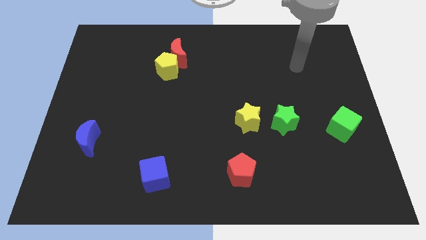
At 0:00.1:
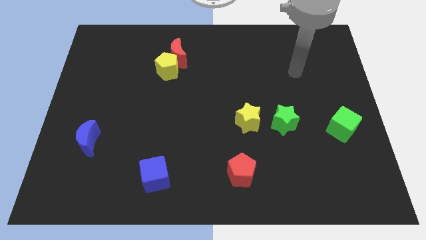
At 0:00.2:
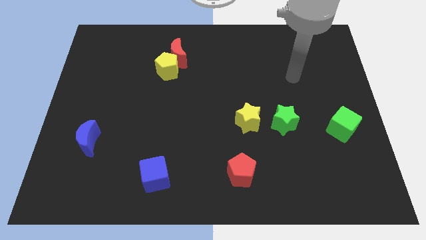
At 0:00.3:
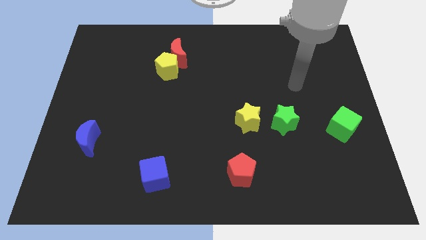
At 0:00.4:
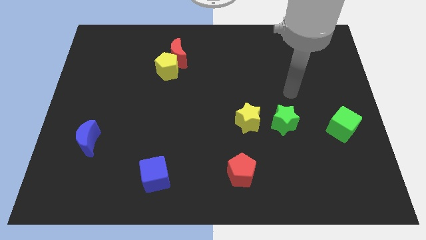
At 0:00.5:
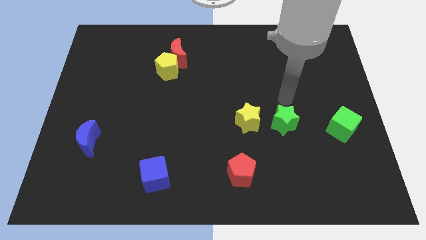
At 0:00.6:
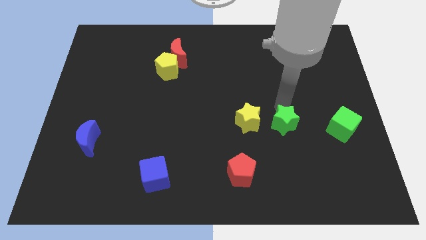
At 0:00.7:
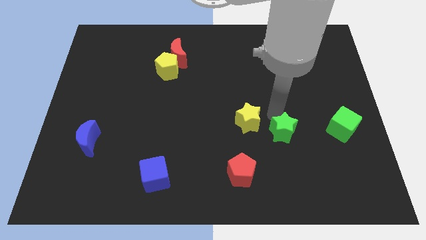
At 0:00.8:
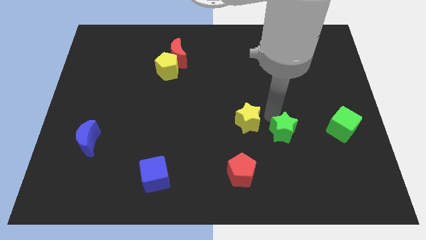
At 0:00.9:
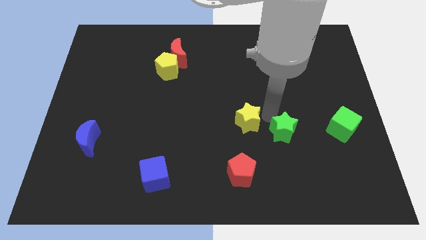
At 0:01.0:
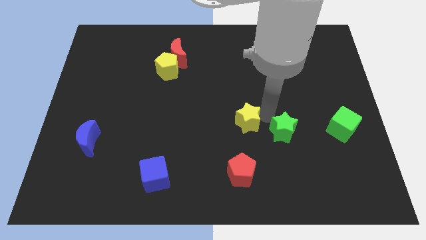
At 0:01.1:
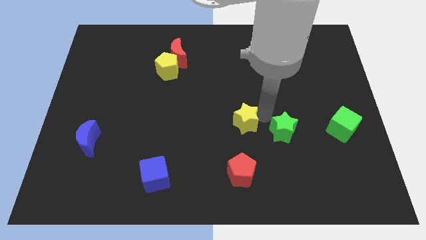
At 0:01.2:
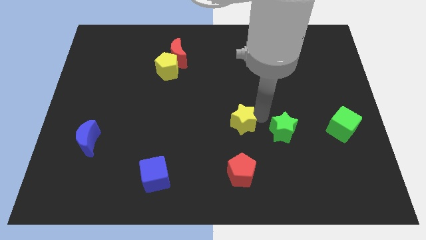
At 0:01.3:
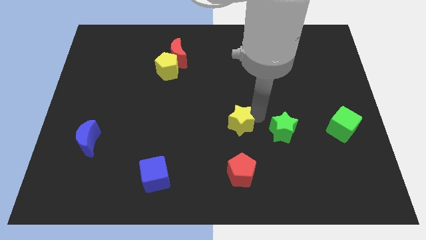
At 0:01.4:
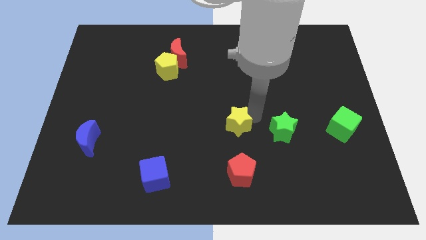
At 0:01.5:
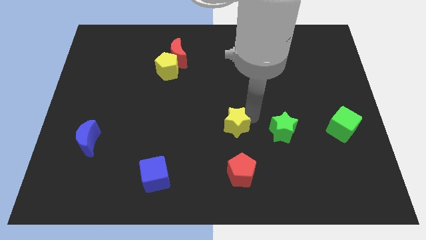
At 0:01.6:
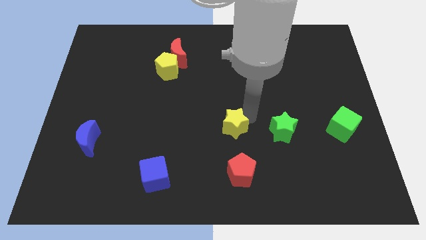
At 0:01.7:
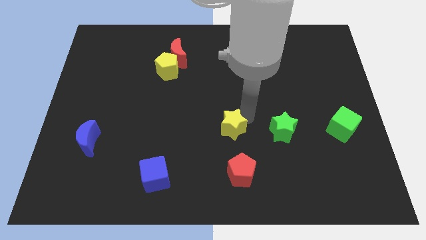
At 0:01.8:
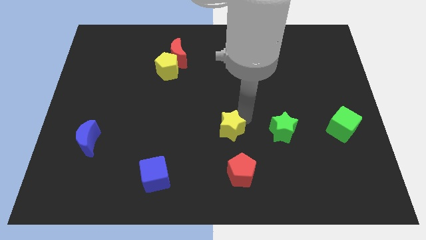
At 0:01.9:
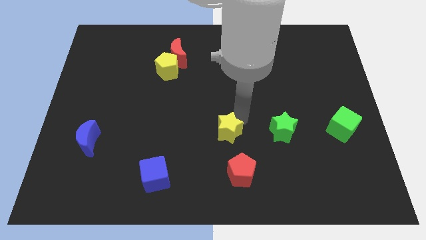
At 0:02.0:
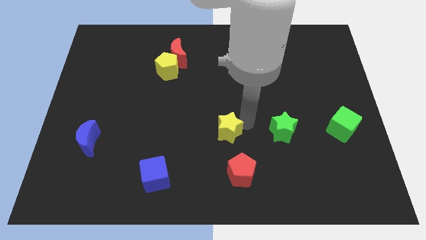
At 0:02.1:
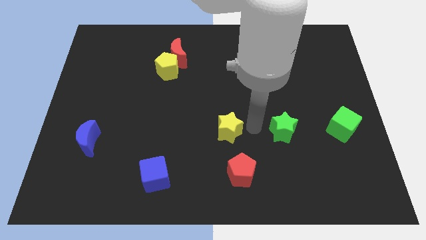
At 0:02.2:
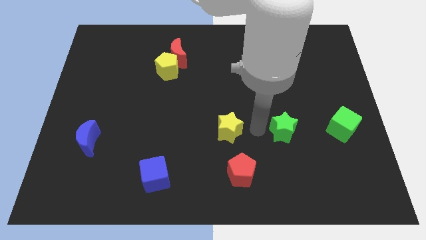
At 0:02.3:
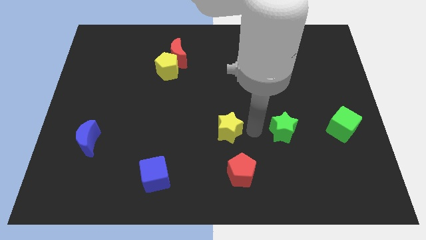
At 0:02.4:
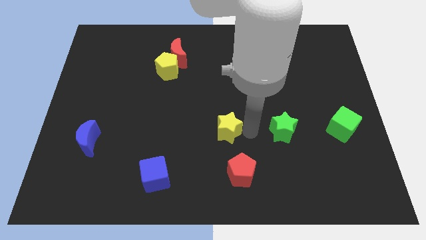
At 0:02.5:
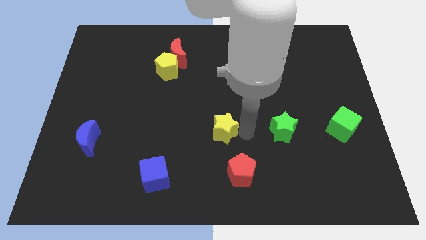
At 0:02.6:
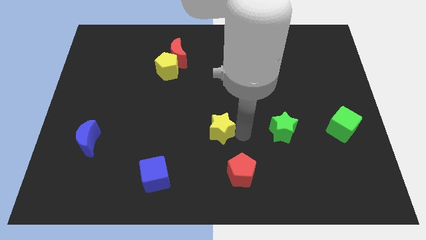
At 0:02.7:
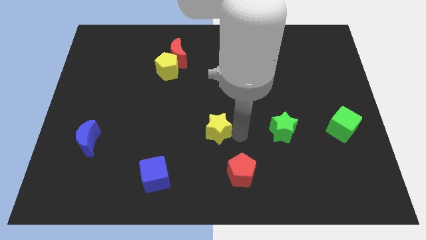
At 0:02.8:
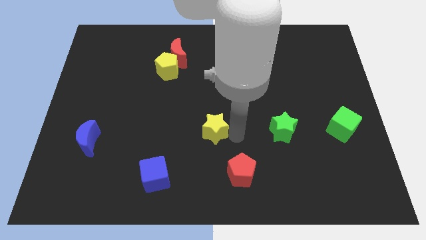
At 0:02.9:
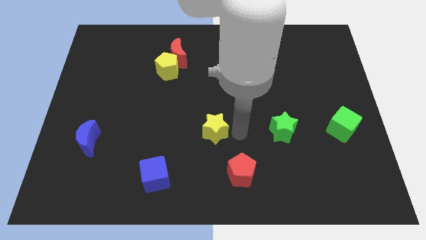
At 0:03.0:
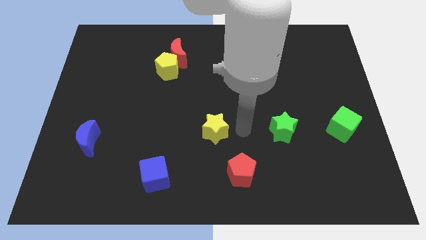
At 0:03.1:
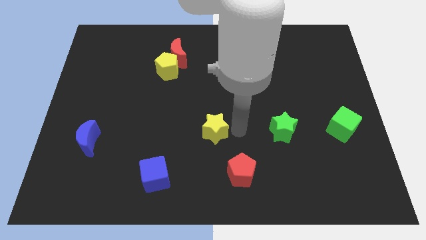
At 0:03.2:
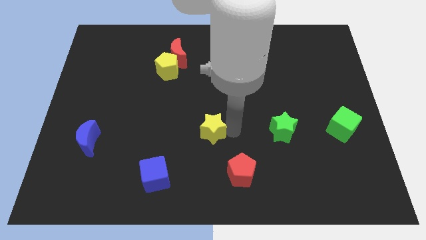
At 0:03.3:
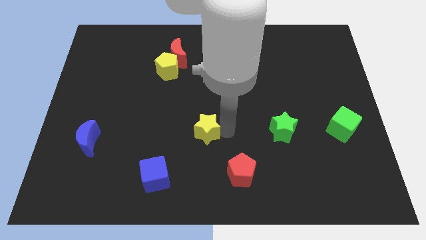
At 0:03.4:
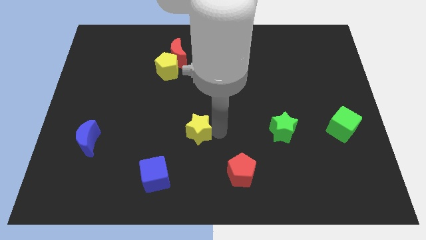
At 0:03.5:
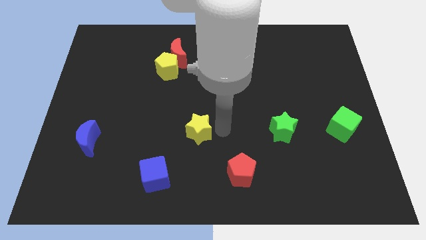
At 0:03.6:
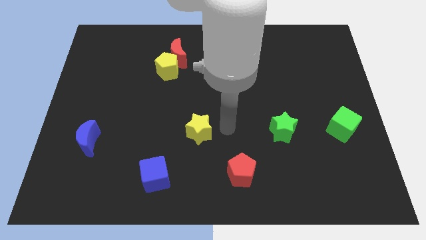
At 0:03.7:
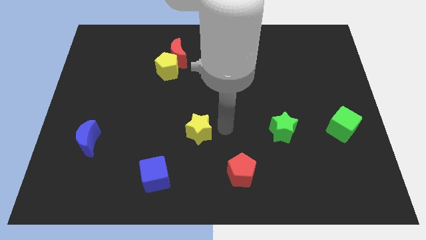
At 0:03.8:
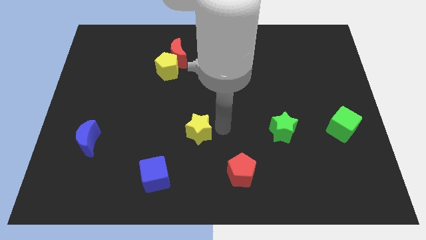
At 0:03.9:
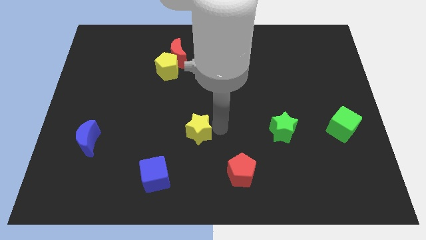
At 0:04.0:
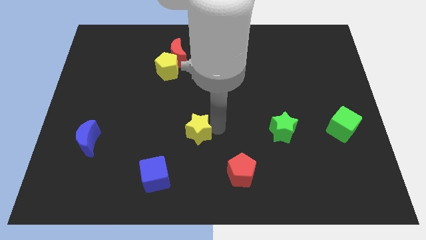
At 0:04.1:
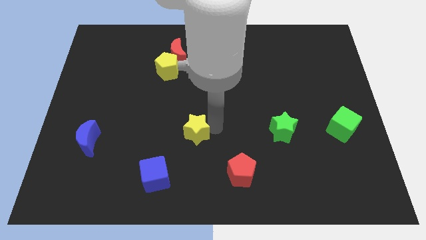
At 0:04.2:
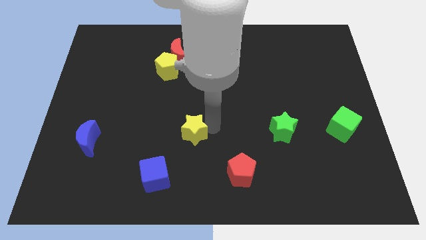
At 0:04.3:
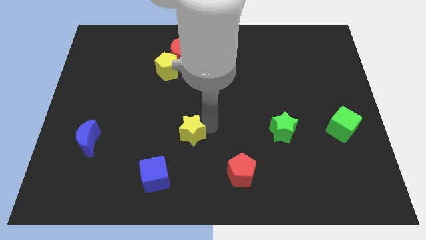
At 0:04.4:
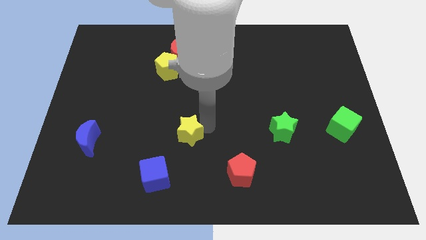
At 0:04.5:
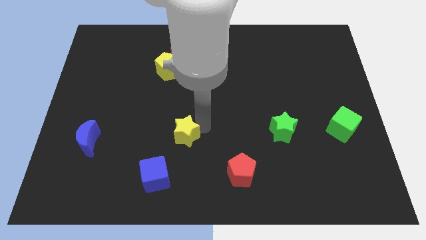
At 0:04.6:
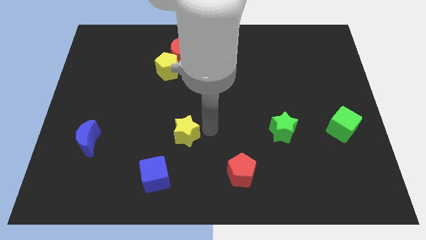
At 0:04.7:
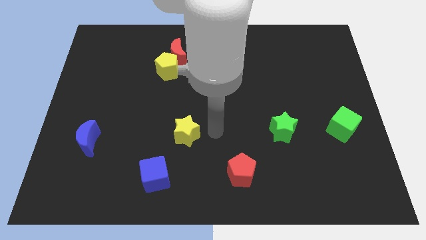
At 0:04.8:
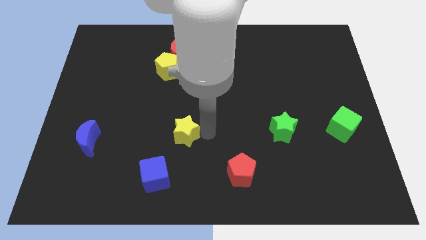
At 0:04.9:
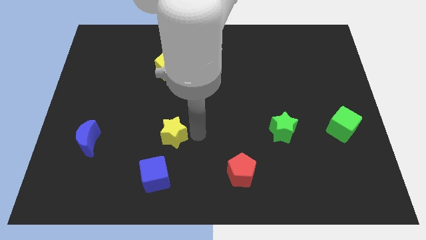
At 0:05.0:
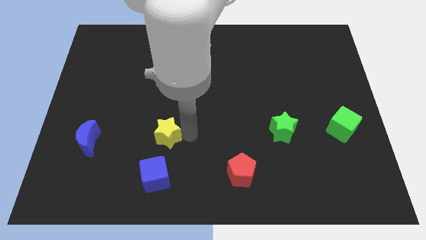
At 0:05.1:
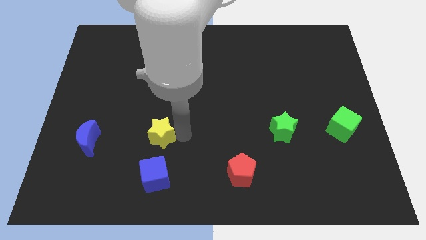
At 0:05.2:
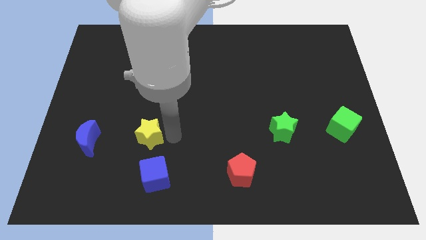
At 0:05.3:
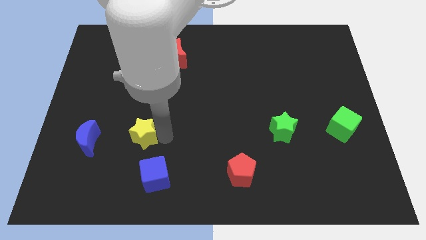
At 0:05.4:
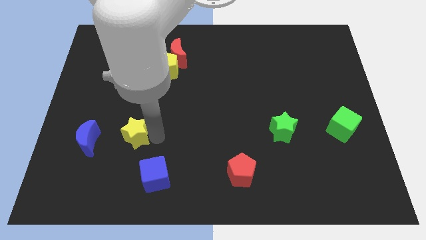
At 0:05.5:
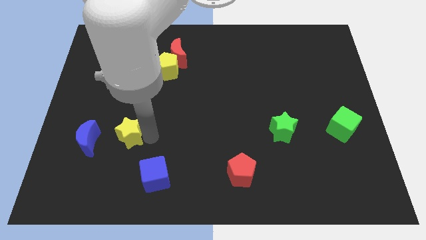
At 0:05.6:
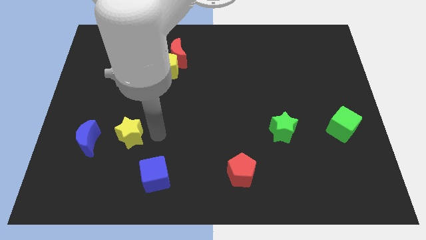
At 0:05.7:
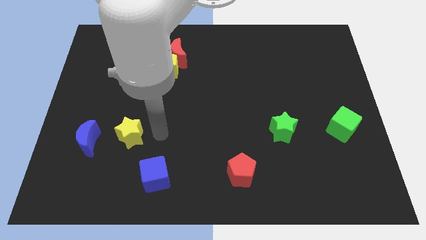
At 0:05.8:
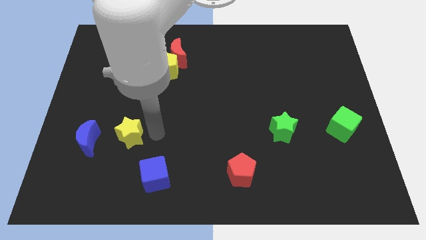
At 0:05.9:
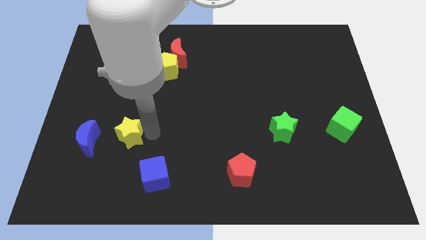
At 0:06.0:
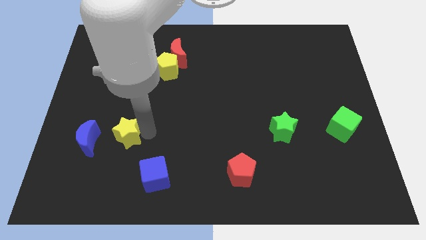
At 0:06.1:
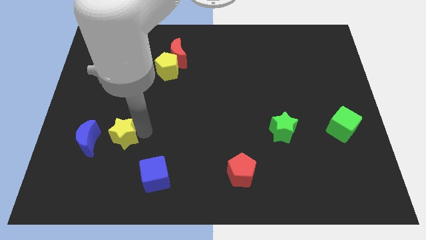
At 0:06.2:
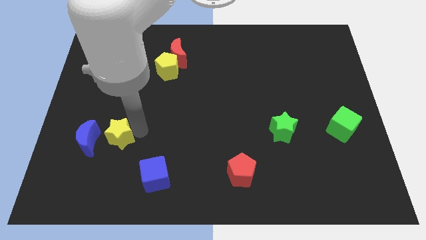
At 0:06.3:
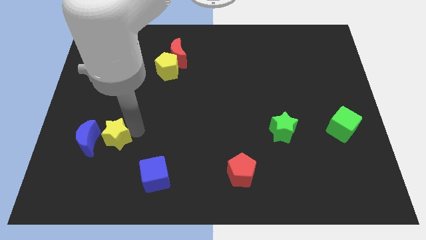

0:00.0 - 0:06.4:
put the yellow star close to the blue moon

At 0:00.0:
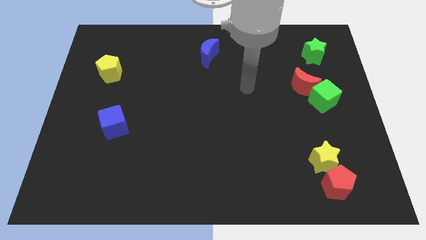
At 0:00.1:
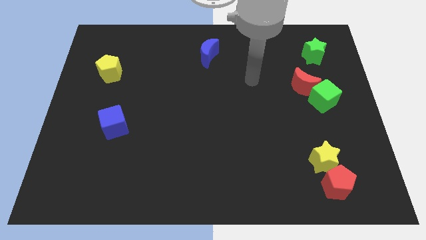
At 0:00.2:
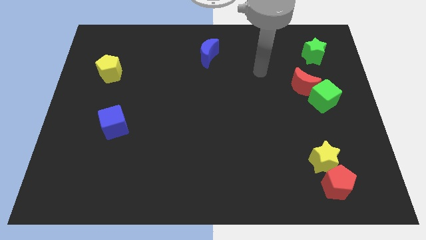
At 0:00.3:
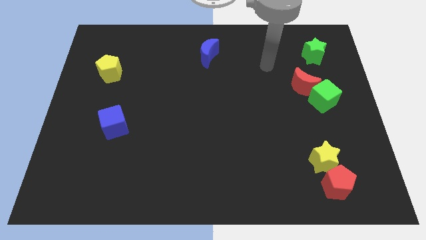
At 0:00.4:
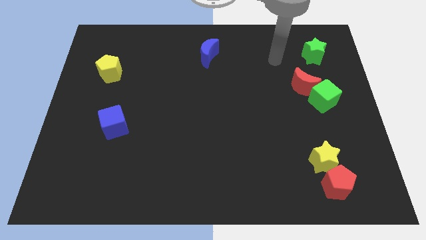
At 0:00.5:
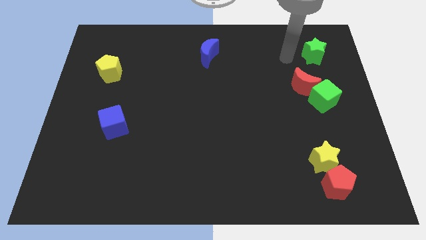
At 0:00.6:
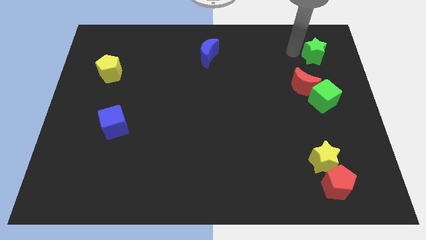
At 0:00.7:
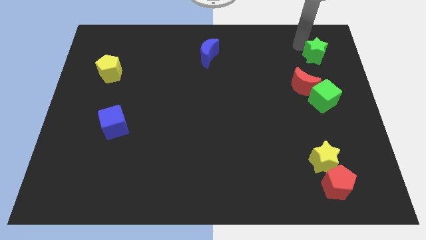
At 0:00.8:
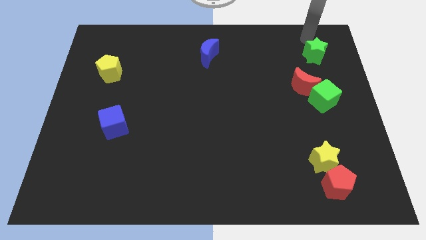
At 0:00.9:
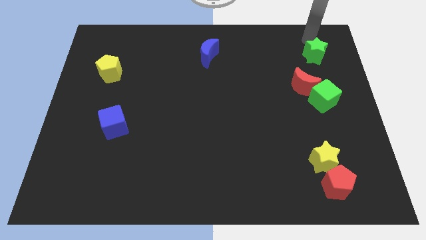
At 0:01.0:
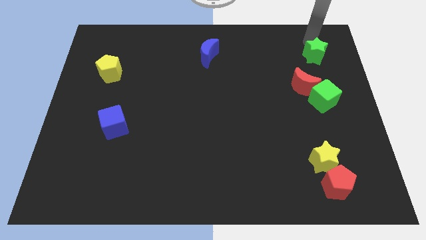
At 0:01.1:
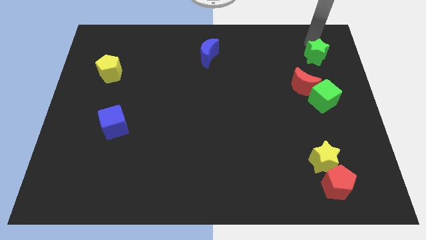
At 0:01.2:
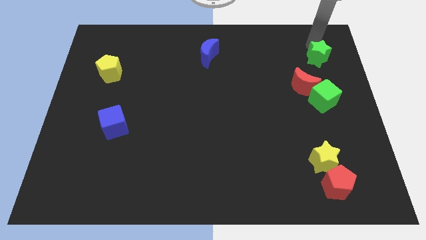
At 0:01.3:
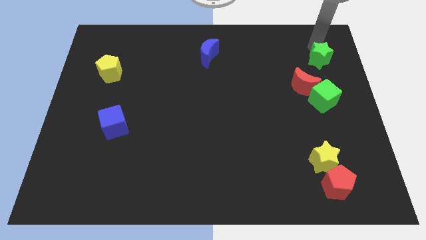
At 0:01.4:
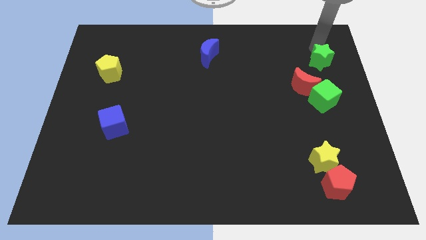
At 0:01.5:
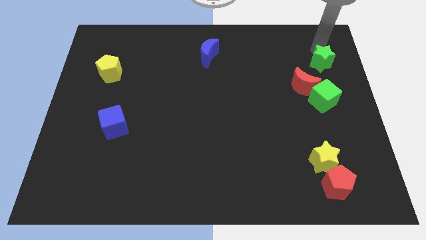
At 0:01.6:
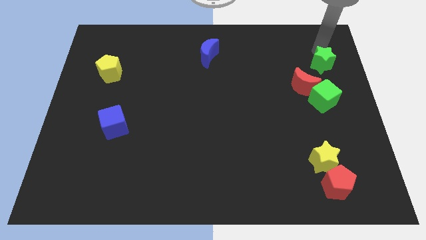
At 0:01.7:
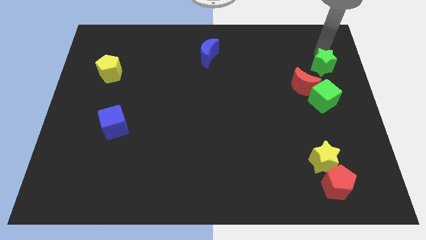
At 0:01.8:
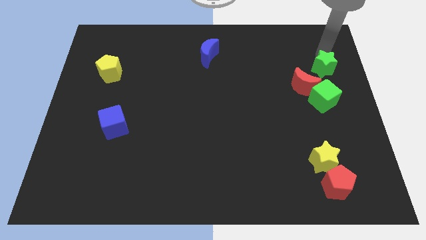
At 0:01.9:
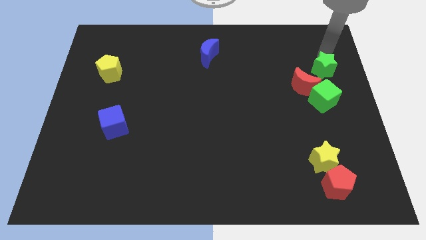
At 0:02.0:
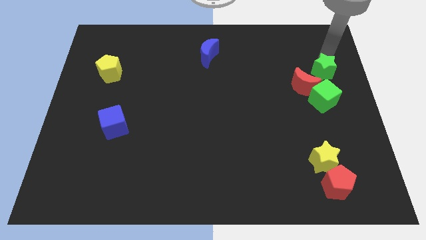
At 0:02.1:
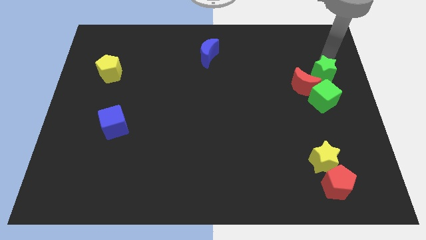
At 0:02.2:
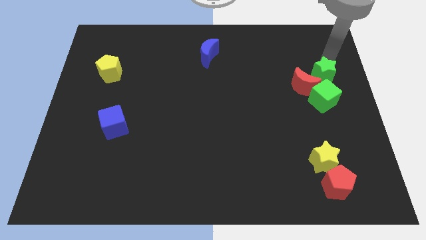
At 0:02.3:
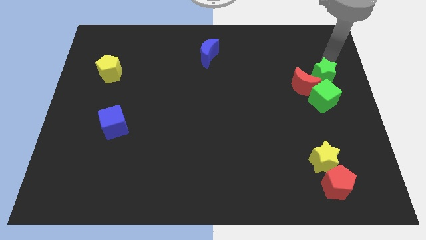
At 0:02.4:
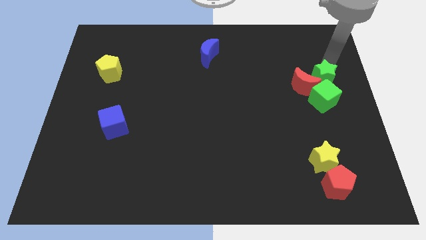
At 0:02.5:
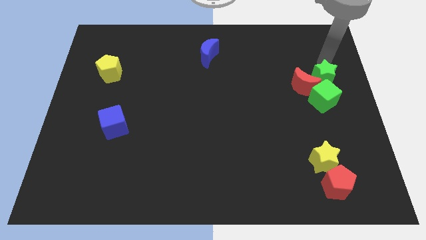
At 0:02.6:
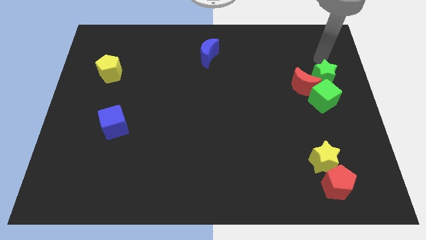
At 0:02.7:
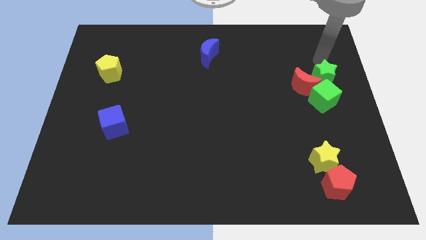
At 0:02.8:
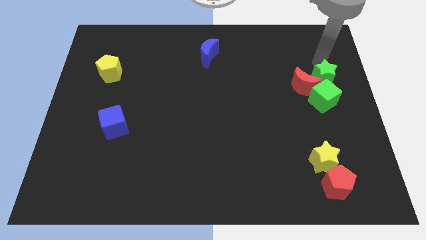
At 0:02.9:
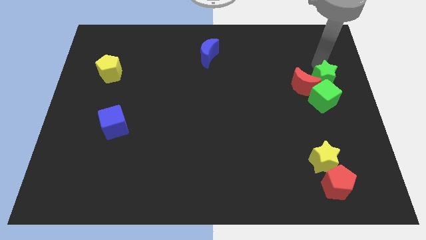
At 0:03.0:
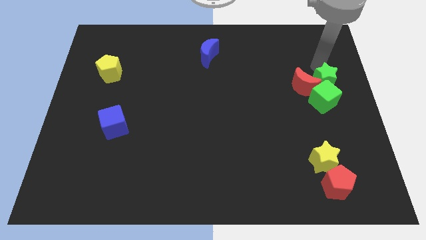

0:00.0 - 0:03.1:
move the green star next to the green cube
